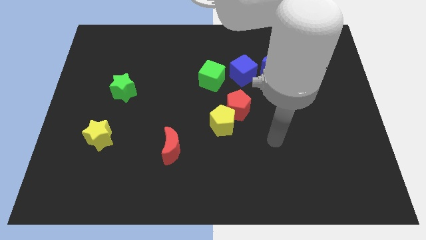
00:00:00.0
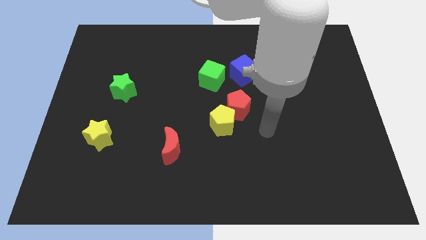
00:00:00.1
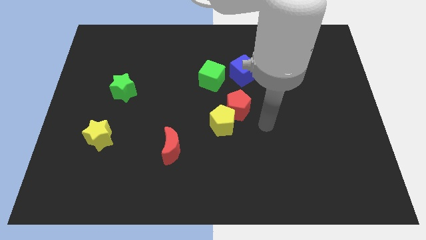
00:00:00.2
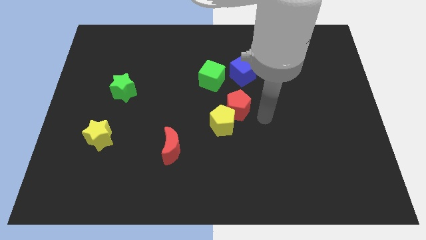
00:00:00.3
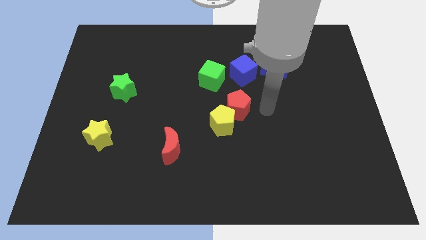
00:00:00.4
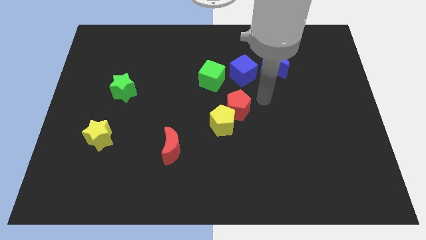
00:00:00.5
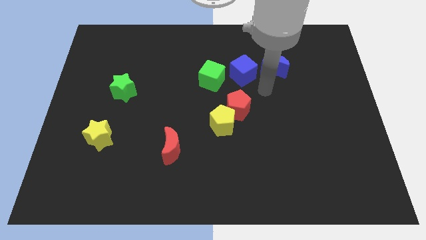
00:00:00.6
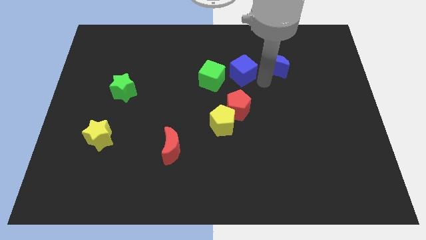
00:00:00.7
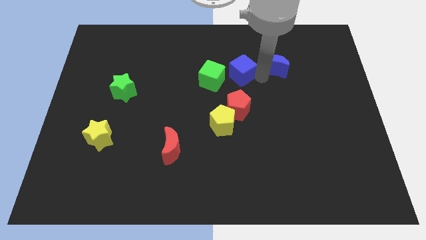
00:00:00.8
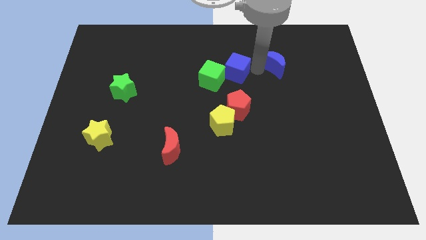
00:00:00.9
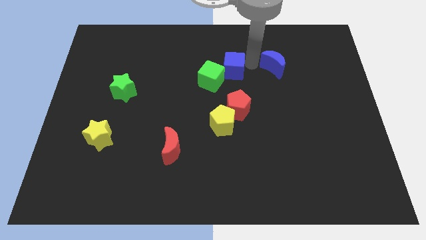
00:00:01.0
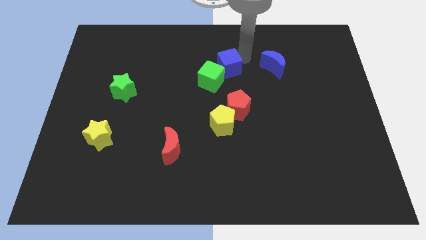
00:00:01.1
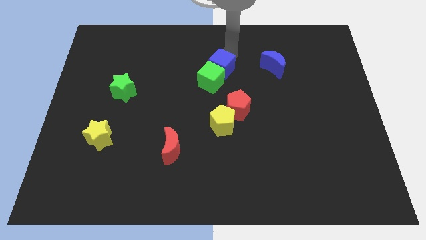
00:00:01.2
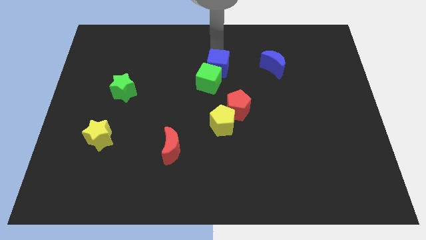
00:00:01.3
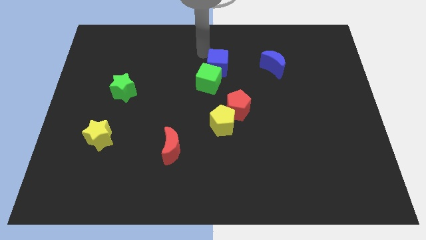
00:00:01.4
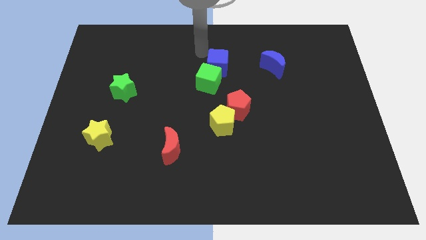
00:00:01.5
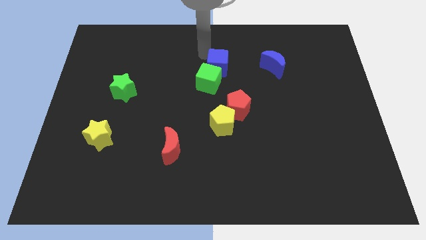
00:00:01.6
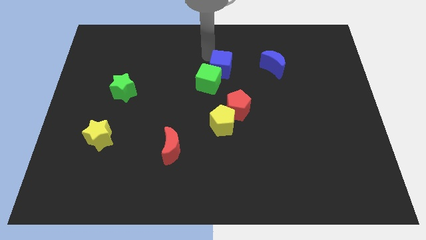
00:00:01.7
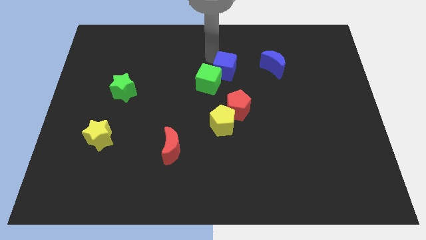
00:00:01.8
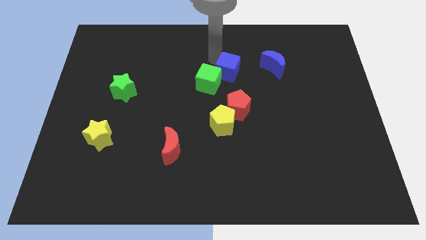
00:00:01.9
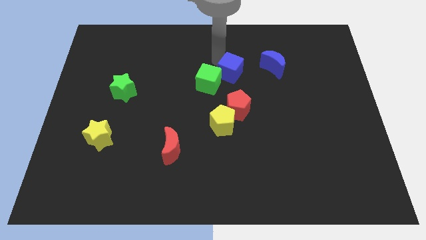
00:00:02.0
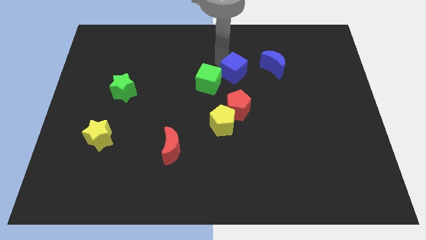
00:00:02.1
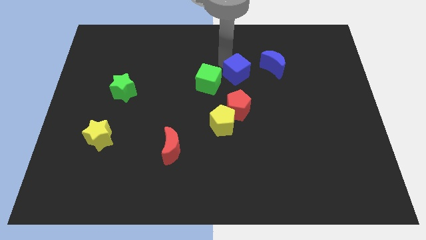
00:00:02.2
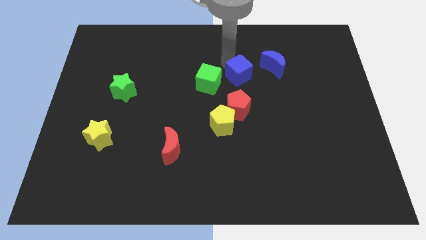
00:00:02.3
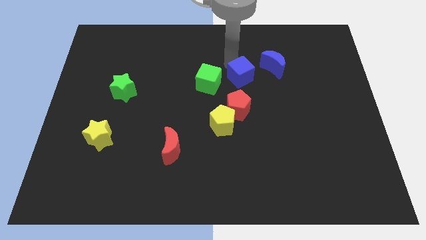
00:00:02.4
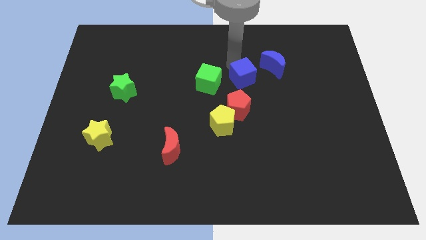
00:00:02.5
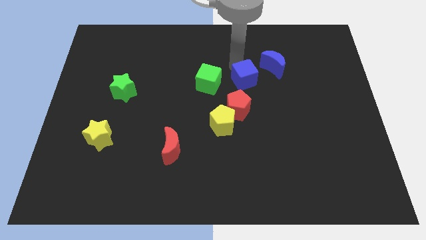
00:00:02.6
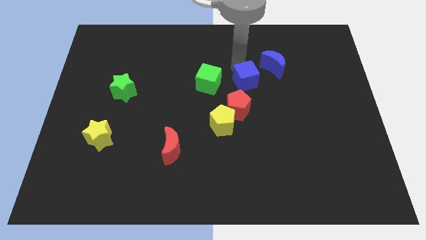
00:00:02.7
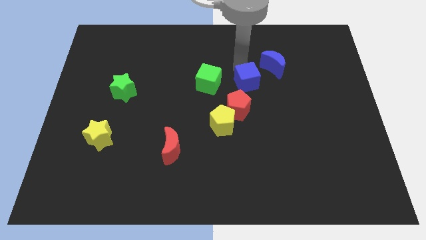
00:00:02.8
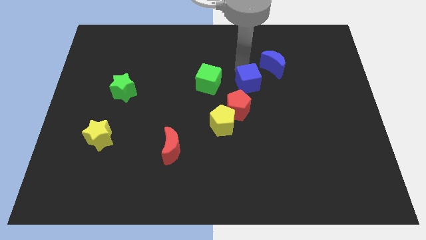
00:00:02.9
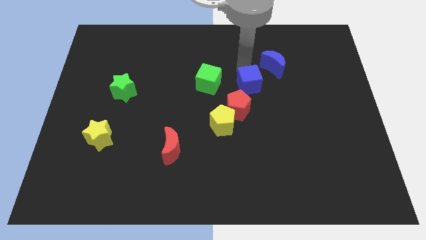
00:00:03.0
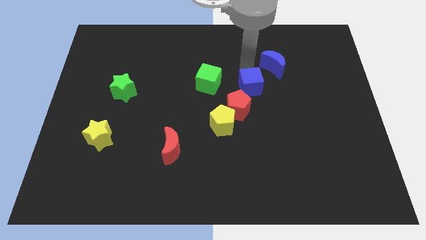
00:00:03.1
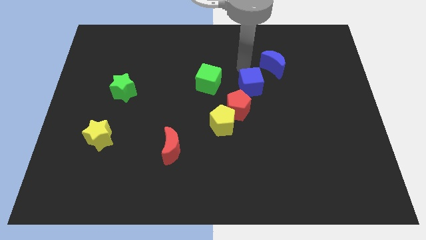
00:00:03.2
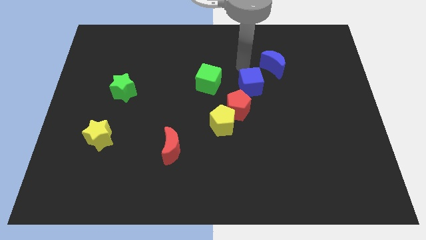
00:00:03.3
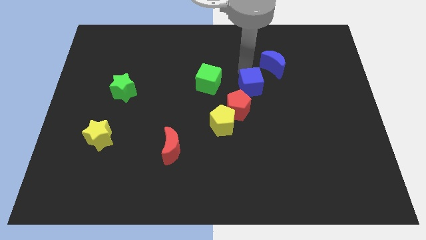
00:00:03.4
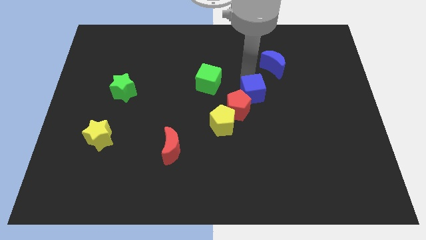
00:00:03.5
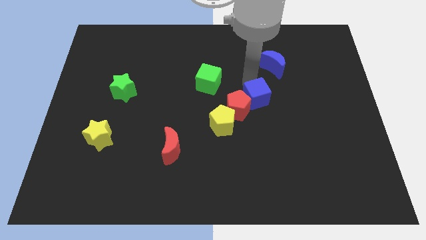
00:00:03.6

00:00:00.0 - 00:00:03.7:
push the blue cube downwards slightly

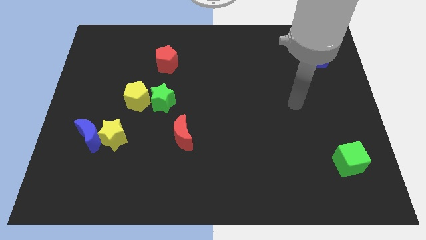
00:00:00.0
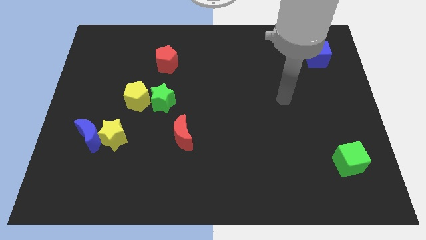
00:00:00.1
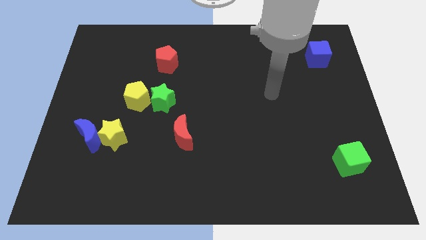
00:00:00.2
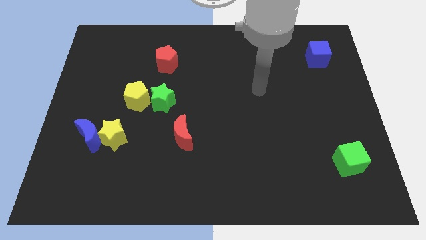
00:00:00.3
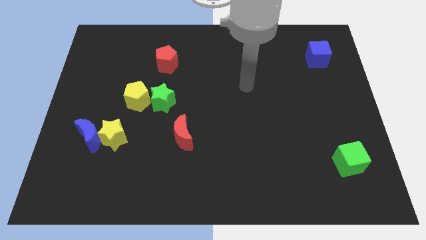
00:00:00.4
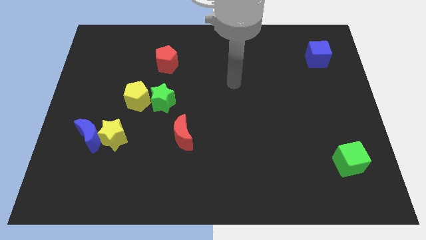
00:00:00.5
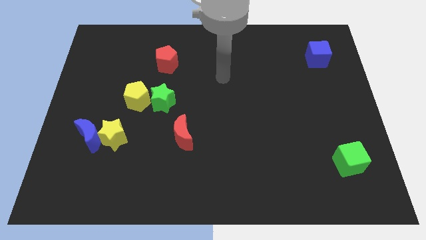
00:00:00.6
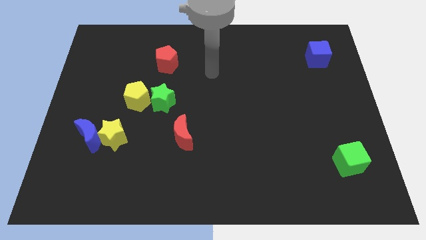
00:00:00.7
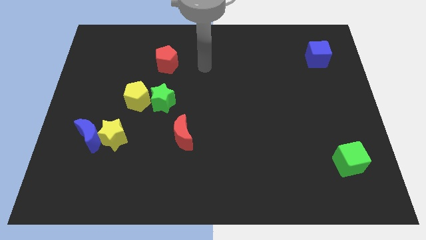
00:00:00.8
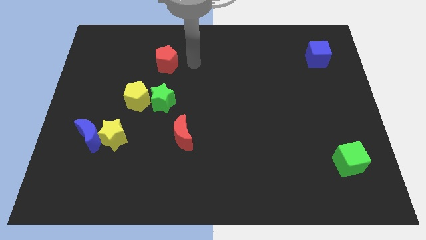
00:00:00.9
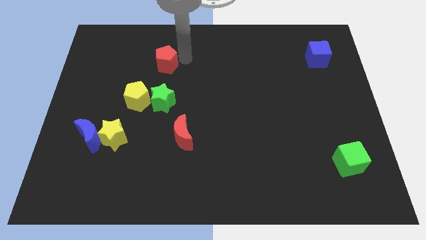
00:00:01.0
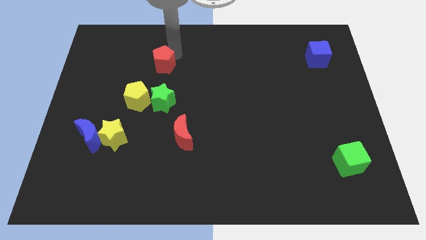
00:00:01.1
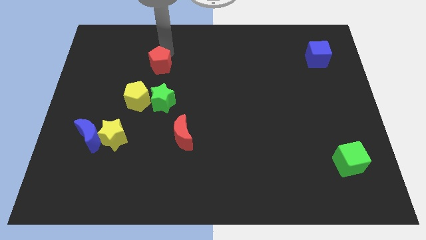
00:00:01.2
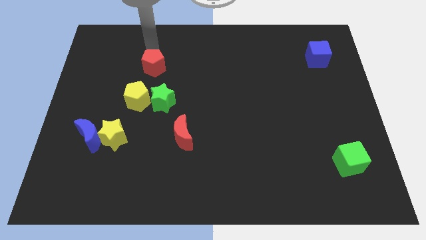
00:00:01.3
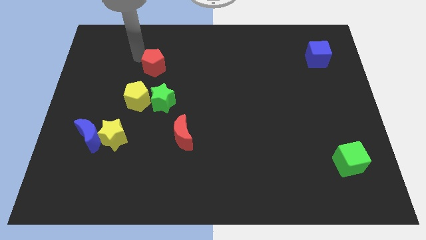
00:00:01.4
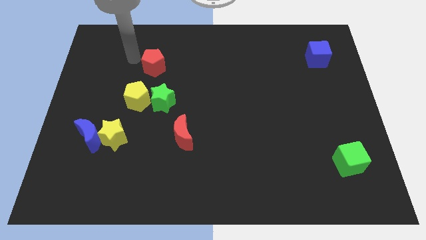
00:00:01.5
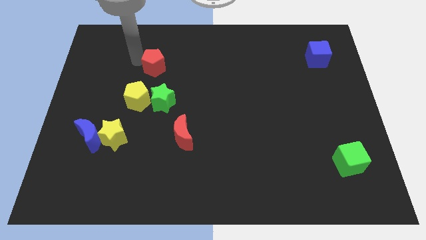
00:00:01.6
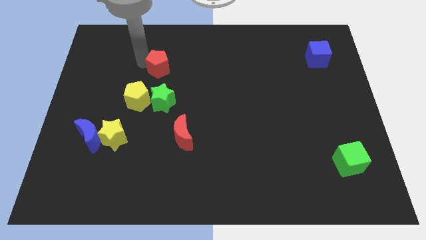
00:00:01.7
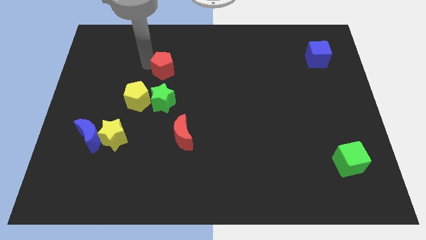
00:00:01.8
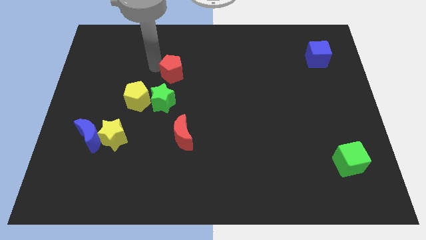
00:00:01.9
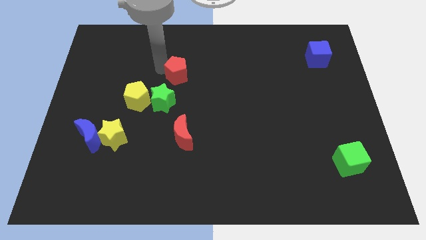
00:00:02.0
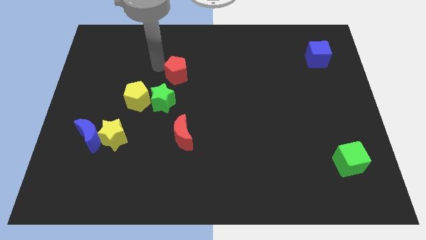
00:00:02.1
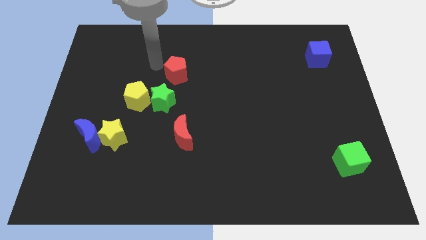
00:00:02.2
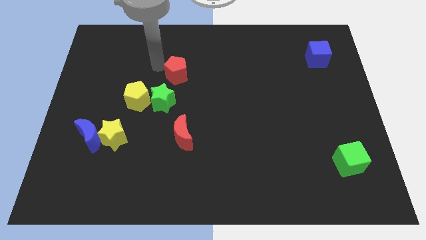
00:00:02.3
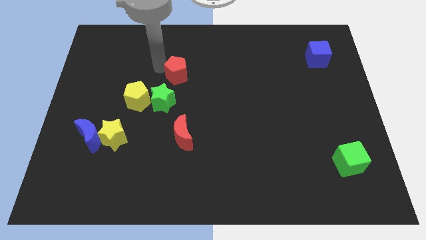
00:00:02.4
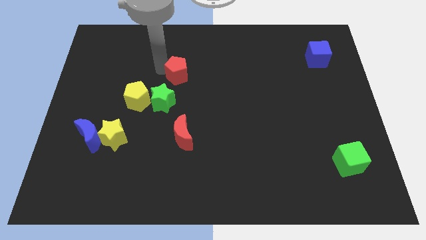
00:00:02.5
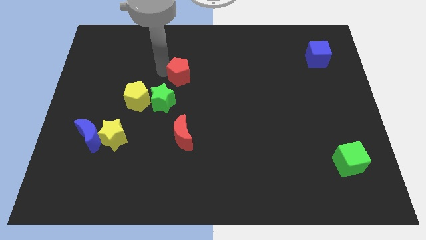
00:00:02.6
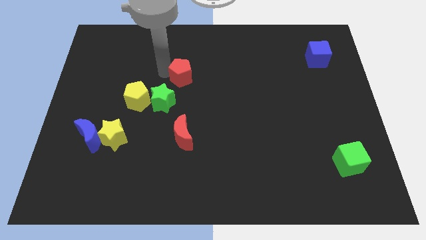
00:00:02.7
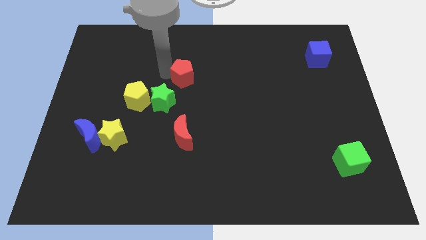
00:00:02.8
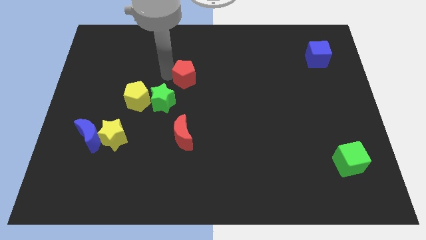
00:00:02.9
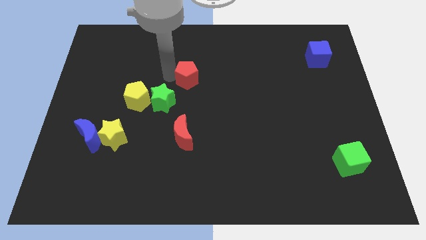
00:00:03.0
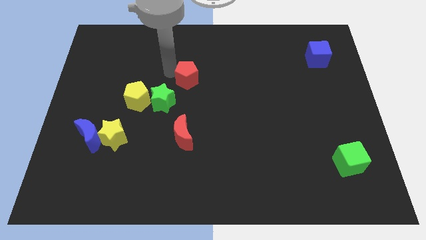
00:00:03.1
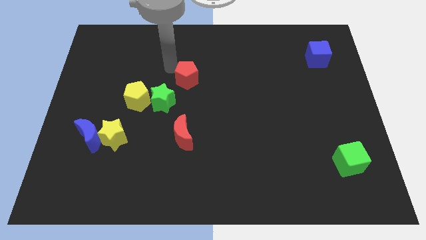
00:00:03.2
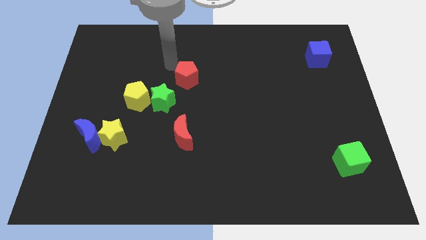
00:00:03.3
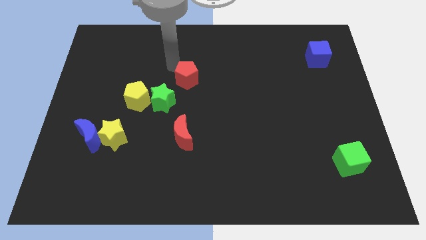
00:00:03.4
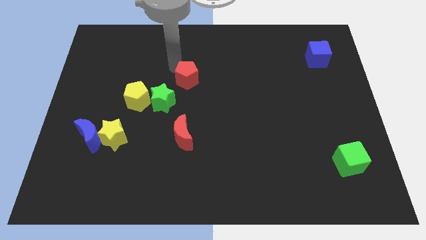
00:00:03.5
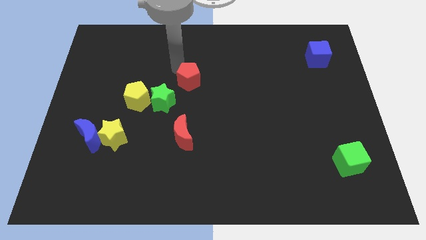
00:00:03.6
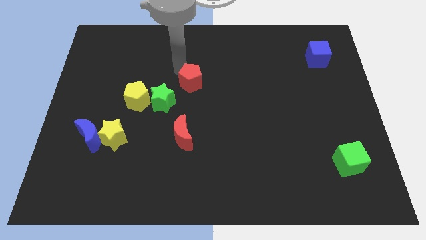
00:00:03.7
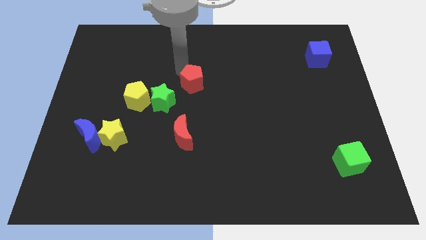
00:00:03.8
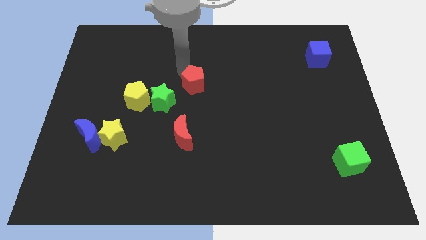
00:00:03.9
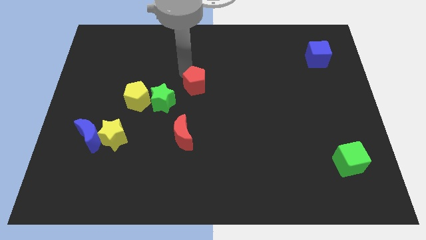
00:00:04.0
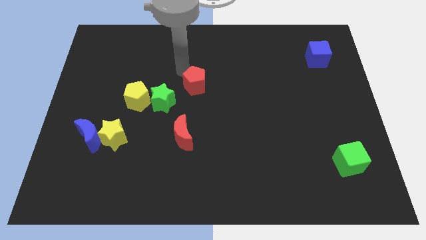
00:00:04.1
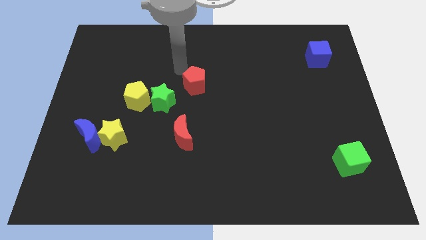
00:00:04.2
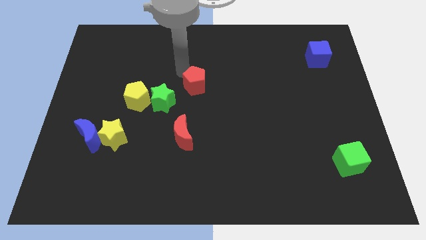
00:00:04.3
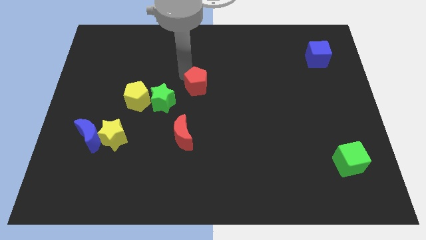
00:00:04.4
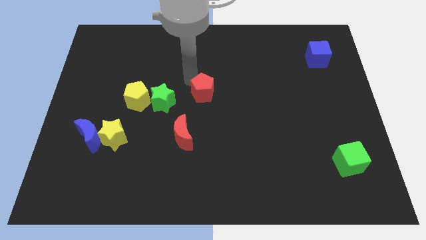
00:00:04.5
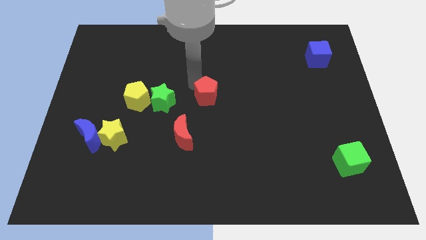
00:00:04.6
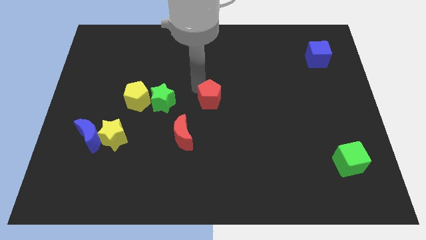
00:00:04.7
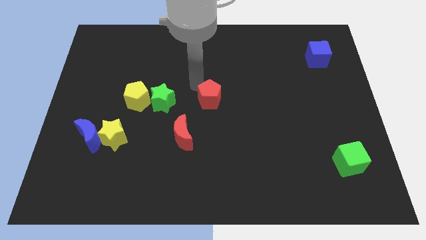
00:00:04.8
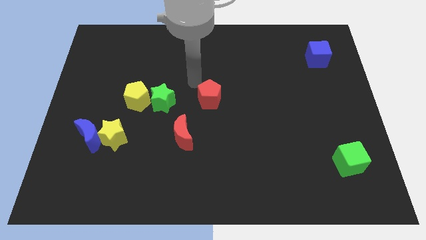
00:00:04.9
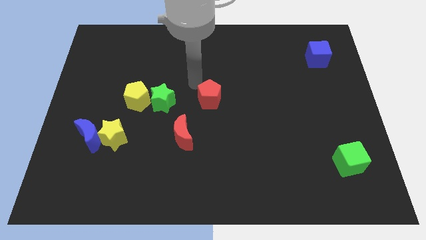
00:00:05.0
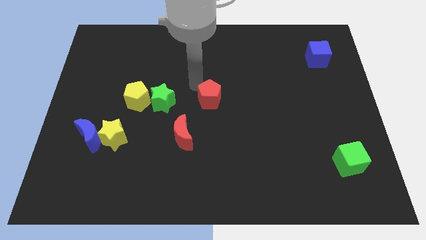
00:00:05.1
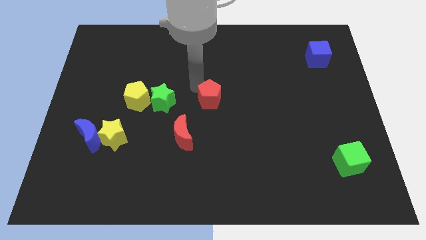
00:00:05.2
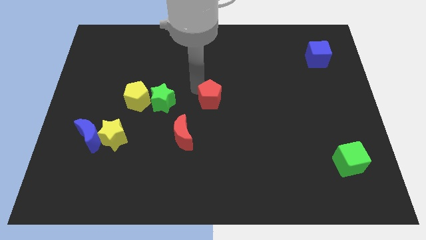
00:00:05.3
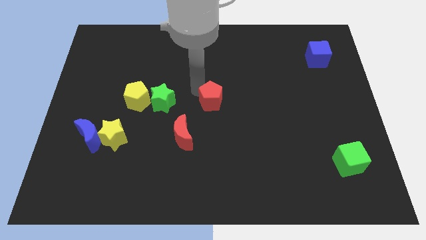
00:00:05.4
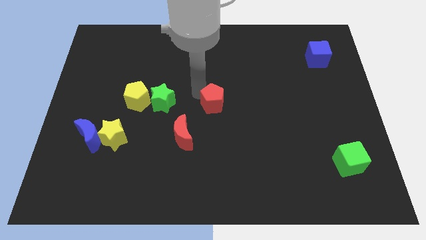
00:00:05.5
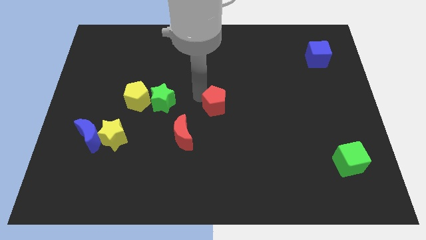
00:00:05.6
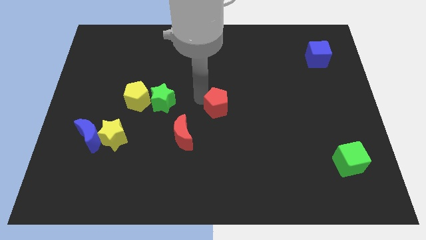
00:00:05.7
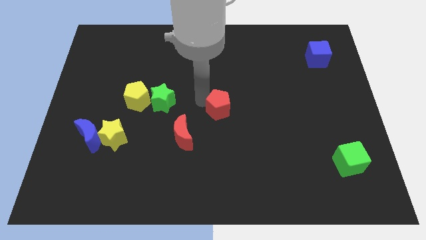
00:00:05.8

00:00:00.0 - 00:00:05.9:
move the red pentagon down and to the right diagonally
